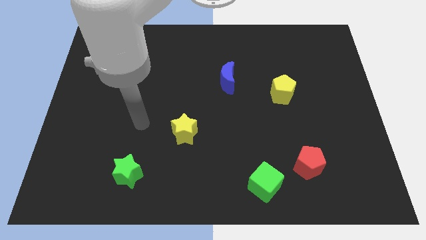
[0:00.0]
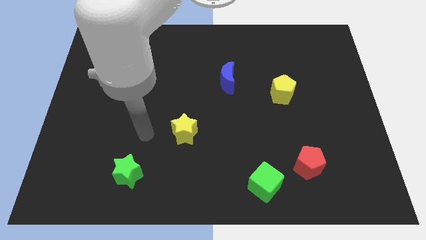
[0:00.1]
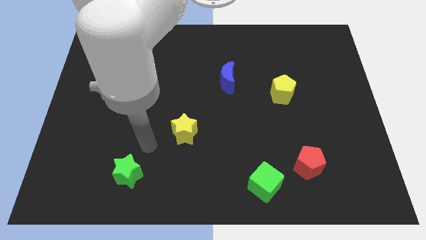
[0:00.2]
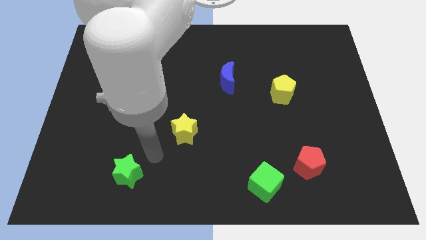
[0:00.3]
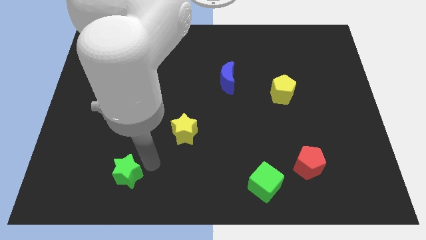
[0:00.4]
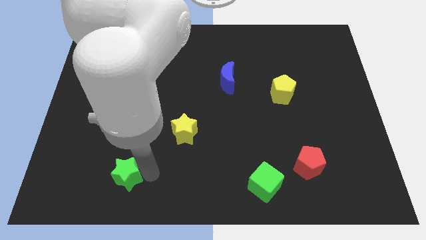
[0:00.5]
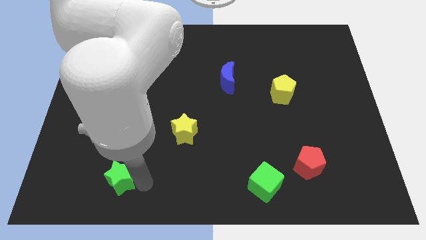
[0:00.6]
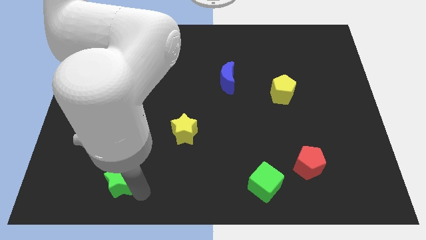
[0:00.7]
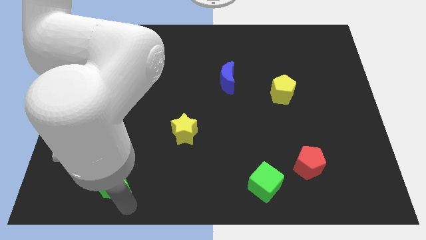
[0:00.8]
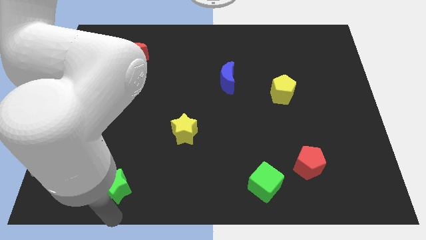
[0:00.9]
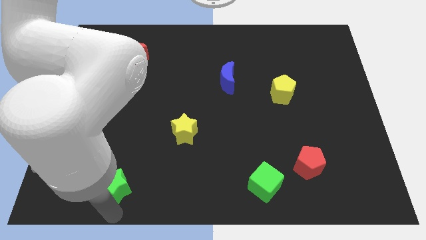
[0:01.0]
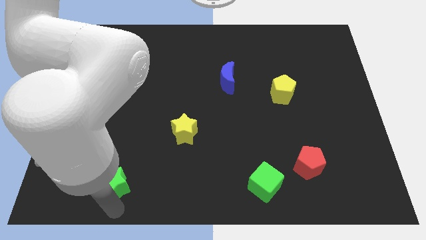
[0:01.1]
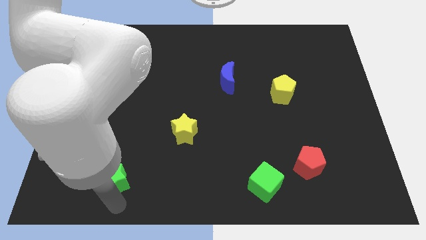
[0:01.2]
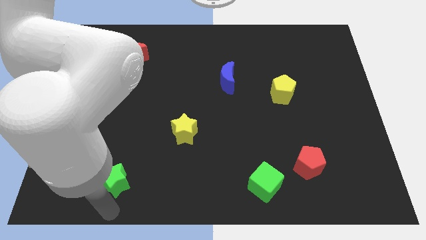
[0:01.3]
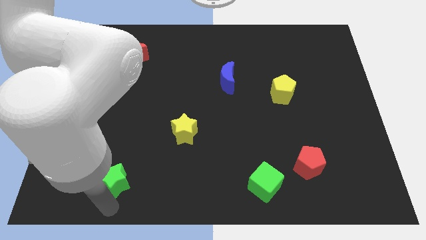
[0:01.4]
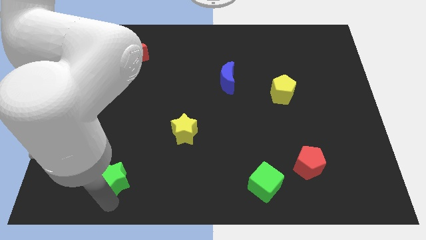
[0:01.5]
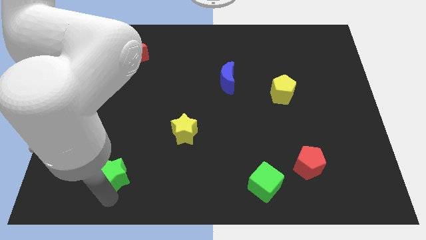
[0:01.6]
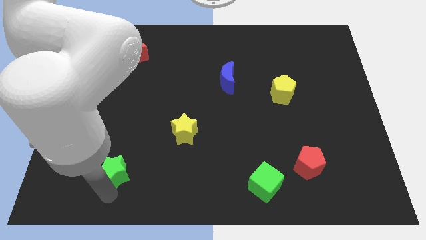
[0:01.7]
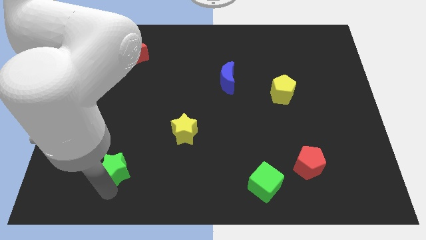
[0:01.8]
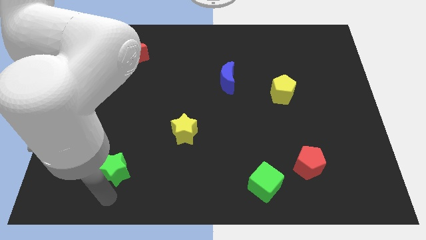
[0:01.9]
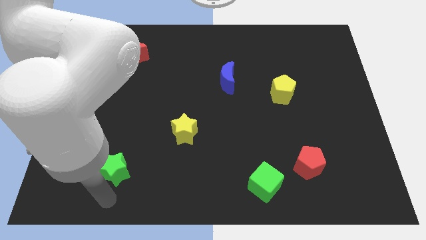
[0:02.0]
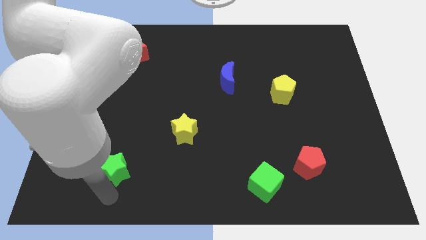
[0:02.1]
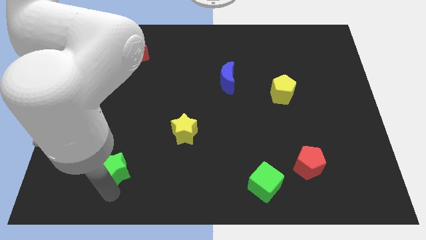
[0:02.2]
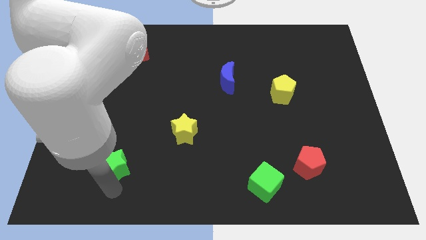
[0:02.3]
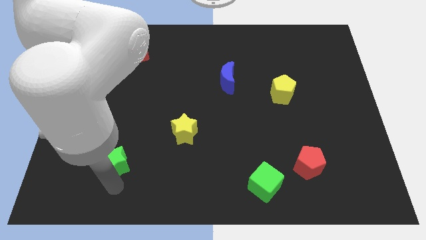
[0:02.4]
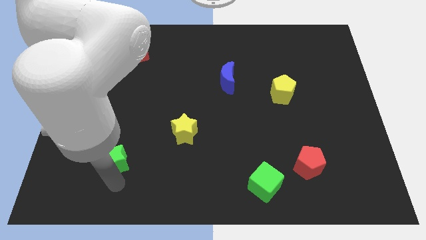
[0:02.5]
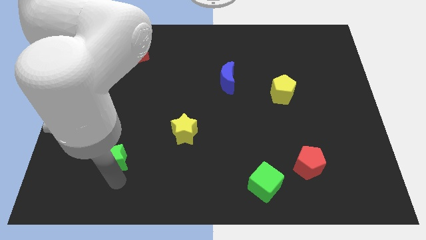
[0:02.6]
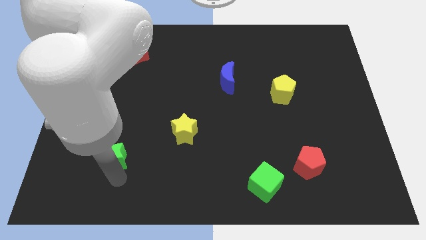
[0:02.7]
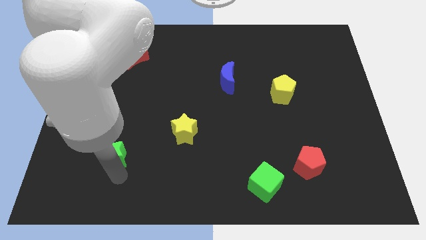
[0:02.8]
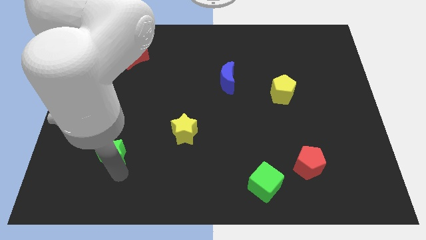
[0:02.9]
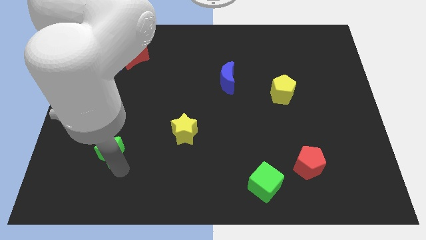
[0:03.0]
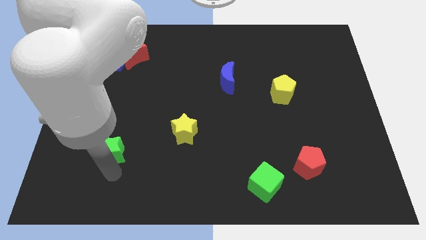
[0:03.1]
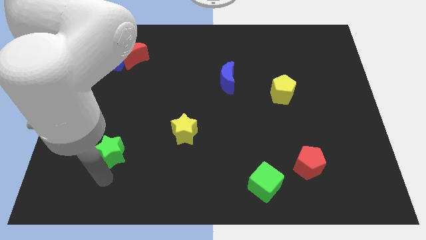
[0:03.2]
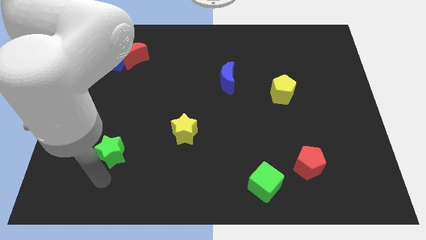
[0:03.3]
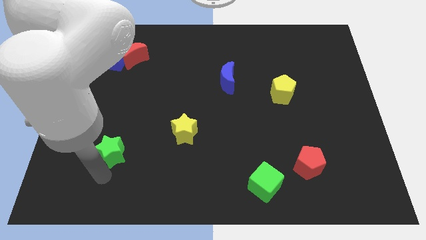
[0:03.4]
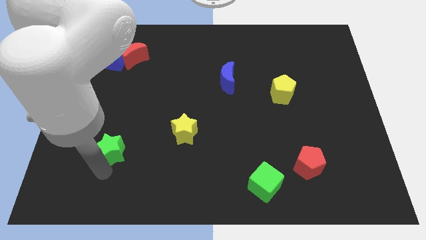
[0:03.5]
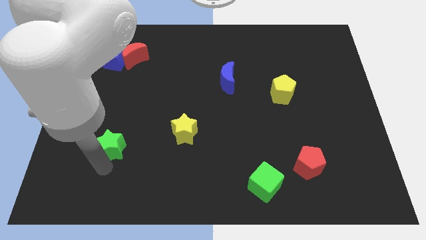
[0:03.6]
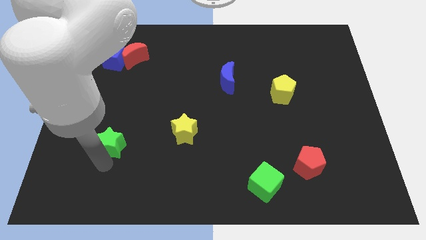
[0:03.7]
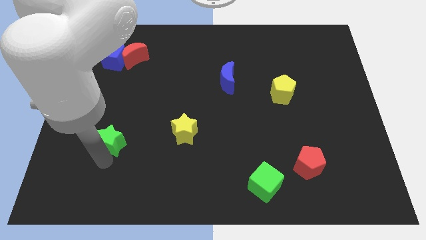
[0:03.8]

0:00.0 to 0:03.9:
move the green star up a bit

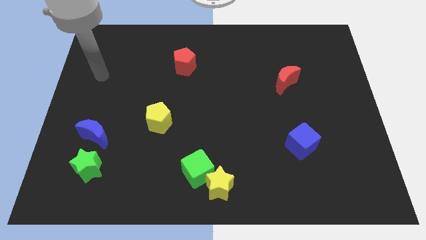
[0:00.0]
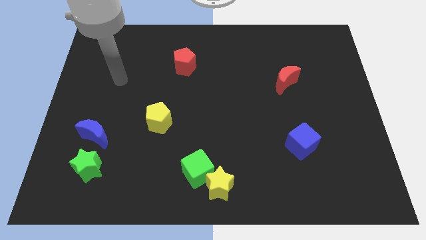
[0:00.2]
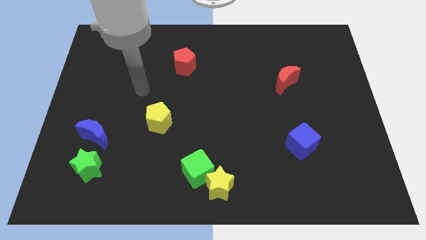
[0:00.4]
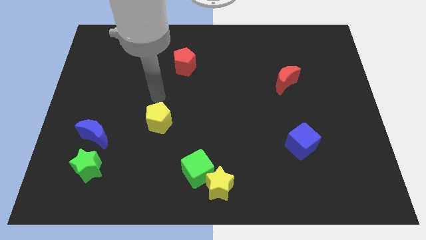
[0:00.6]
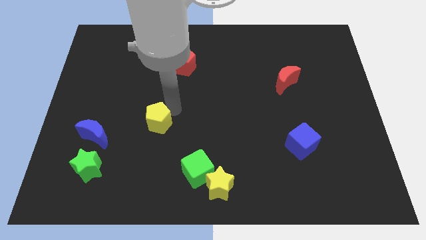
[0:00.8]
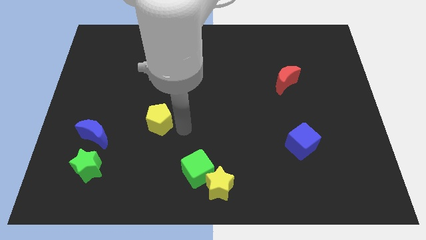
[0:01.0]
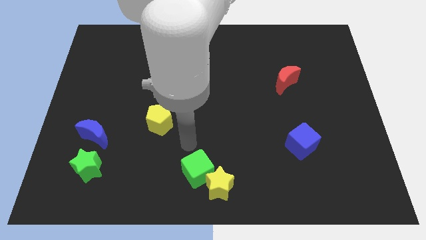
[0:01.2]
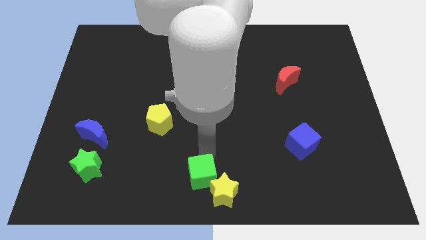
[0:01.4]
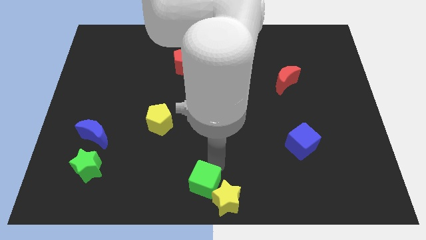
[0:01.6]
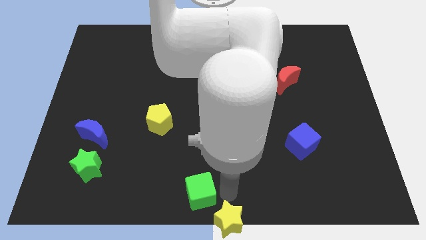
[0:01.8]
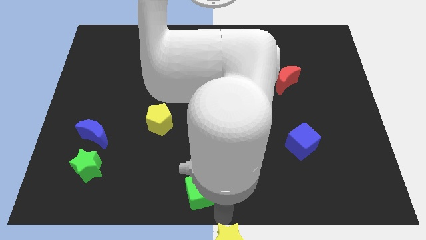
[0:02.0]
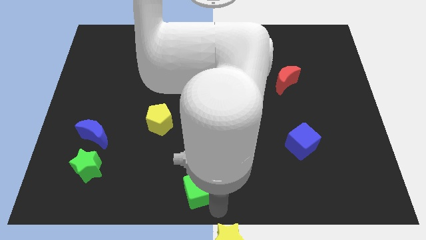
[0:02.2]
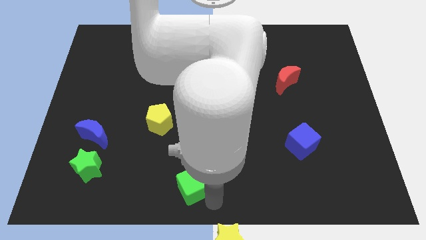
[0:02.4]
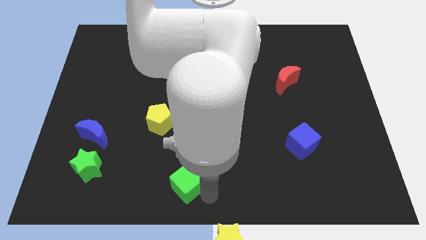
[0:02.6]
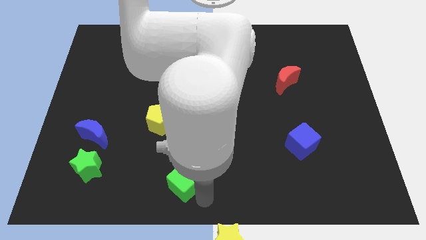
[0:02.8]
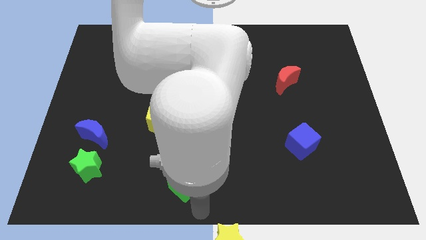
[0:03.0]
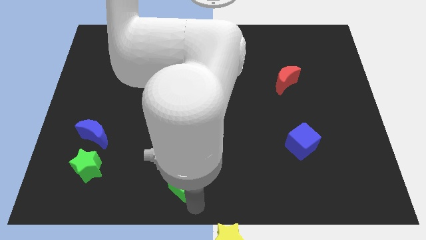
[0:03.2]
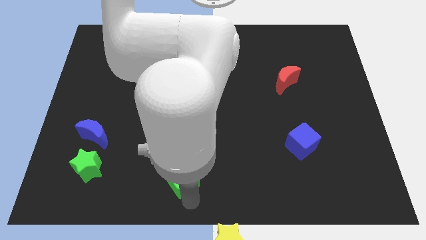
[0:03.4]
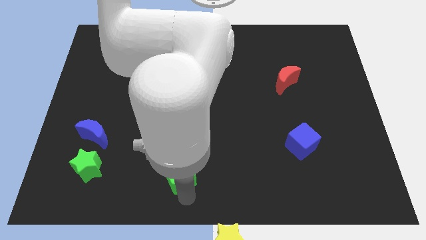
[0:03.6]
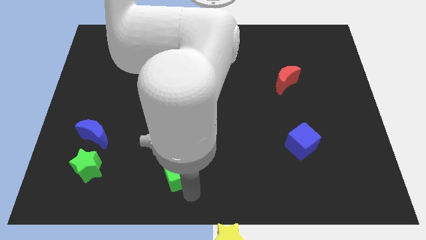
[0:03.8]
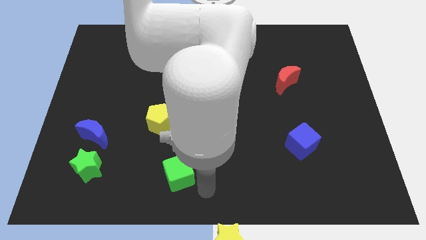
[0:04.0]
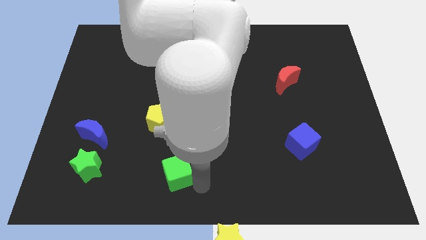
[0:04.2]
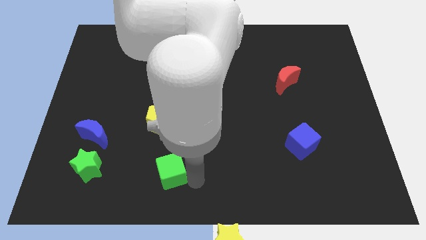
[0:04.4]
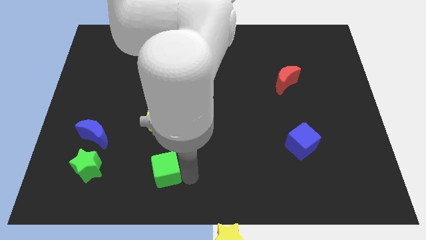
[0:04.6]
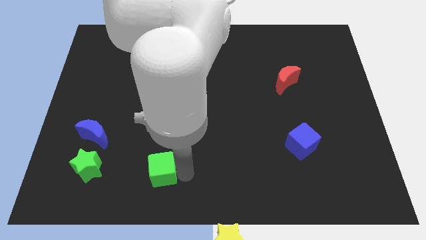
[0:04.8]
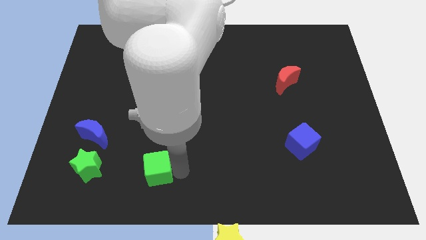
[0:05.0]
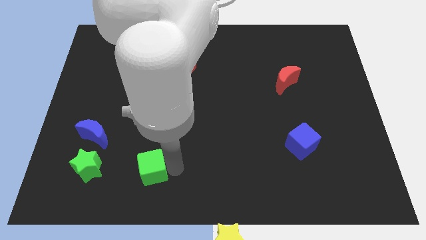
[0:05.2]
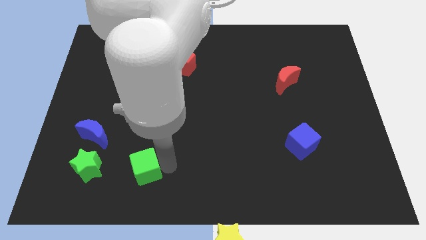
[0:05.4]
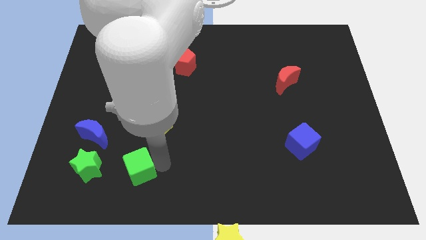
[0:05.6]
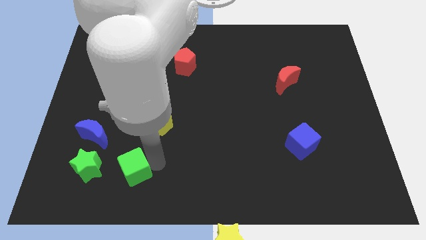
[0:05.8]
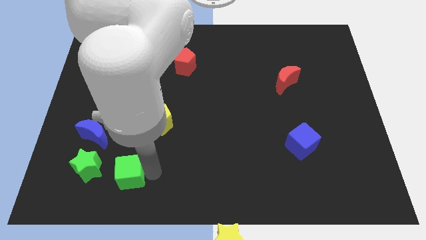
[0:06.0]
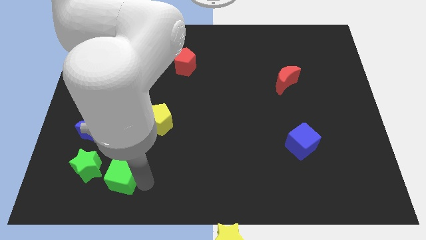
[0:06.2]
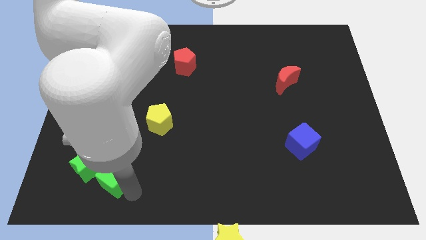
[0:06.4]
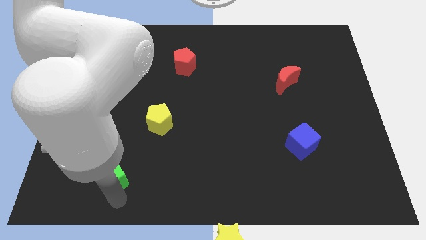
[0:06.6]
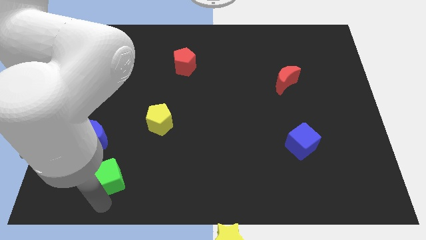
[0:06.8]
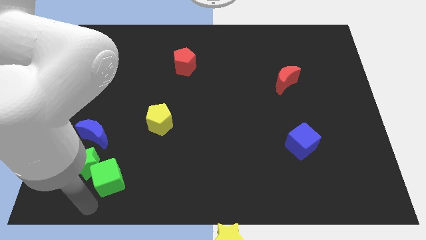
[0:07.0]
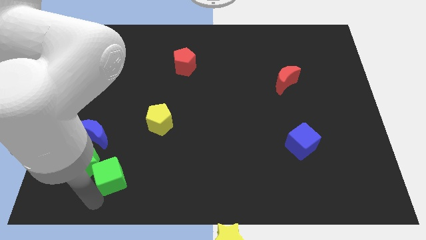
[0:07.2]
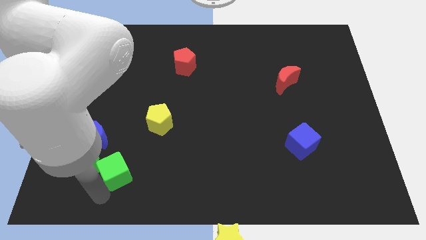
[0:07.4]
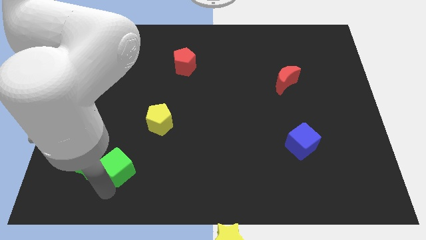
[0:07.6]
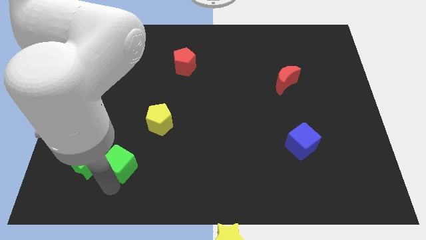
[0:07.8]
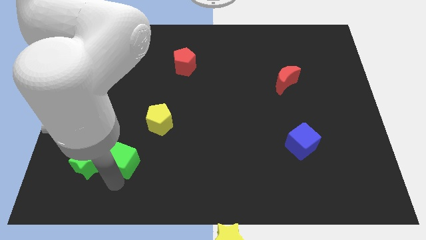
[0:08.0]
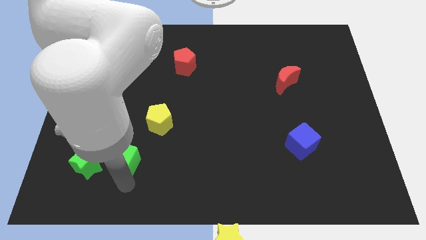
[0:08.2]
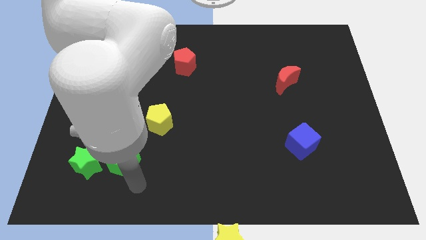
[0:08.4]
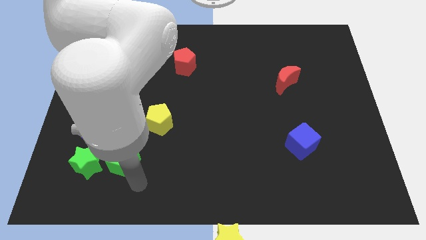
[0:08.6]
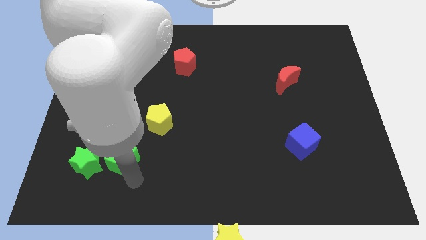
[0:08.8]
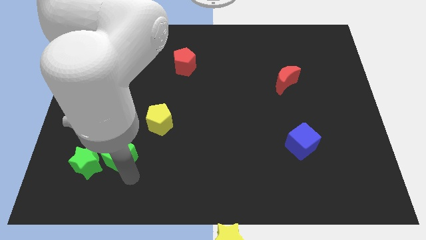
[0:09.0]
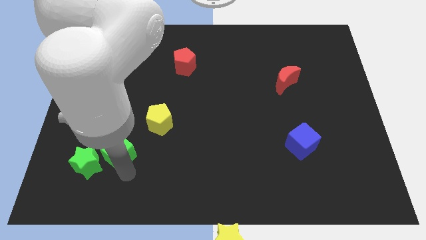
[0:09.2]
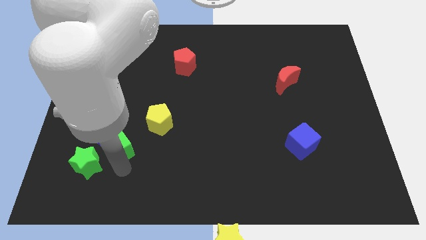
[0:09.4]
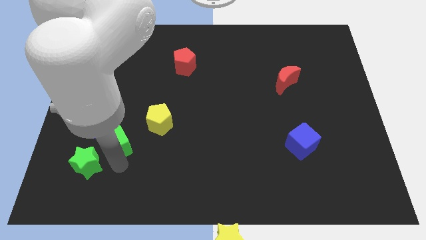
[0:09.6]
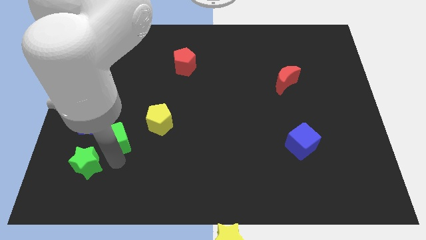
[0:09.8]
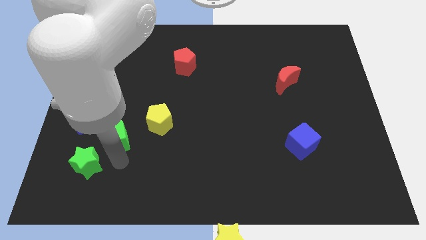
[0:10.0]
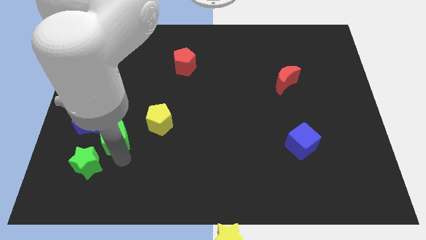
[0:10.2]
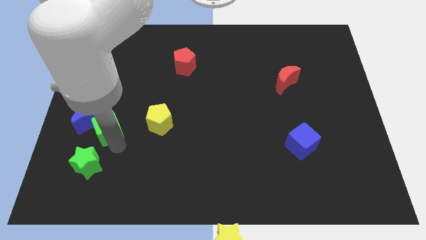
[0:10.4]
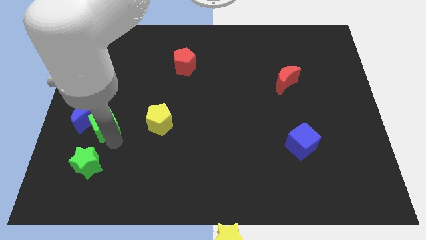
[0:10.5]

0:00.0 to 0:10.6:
slide the green cube diagonally up and left
